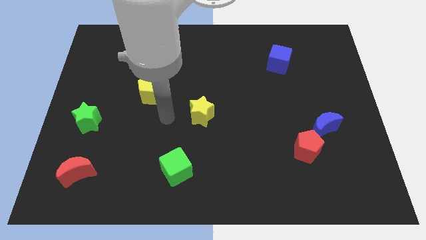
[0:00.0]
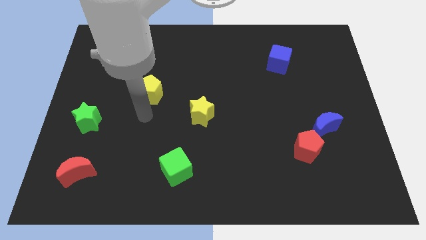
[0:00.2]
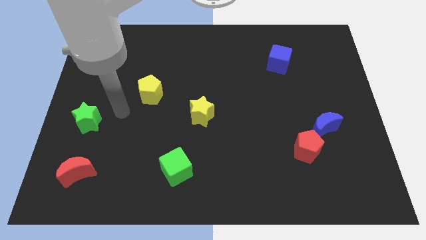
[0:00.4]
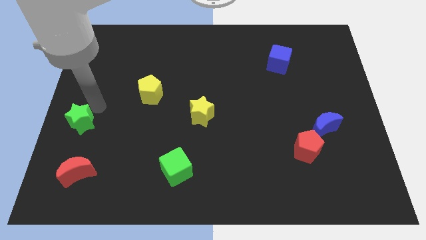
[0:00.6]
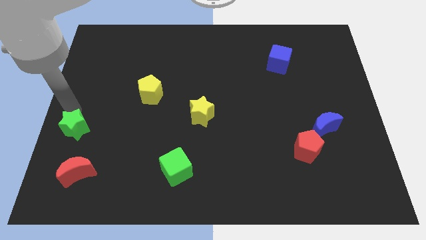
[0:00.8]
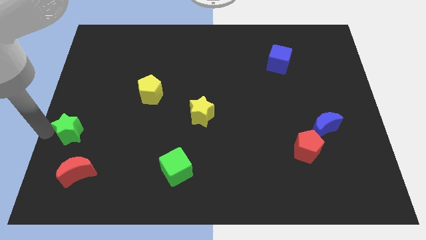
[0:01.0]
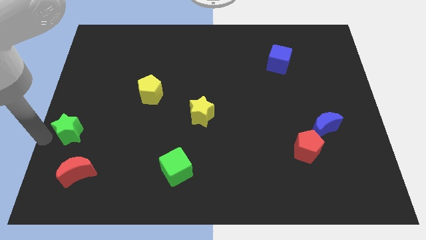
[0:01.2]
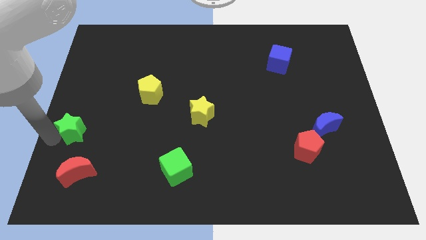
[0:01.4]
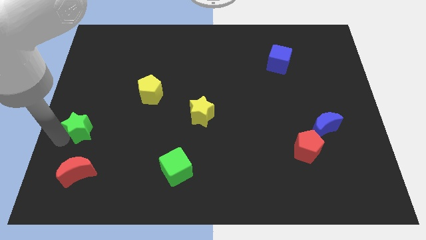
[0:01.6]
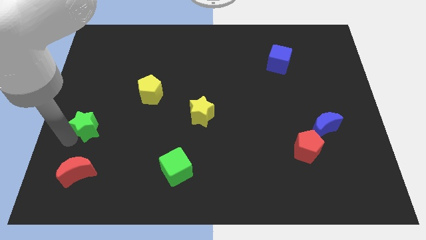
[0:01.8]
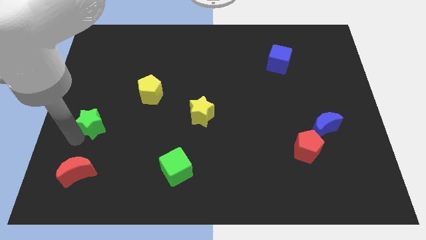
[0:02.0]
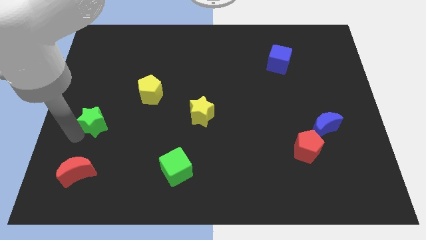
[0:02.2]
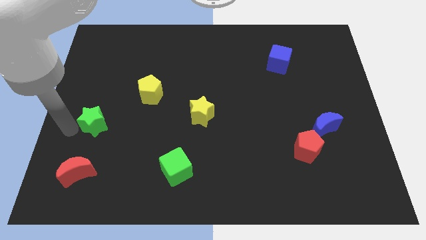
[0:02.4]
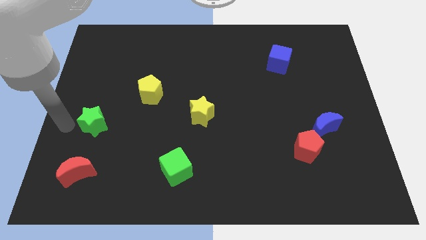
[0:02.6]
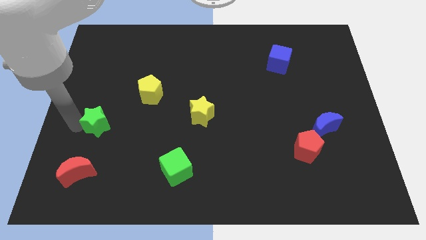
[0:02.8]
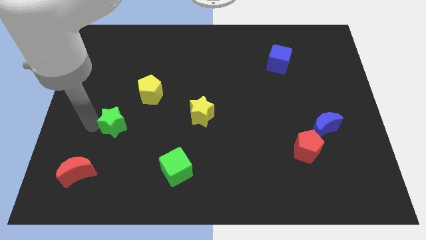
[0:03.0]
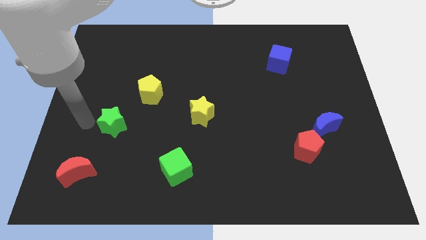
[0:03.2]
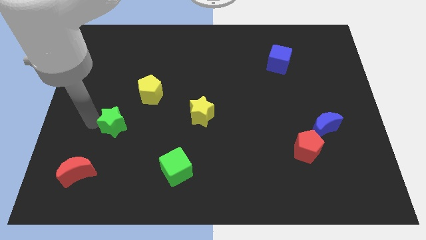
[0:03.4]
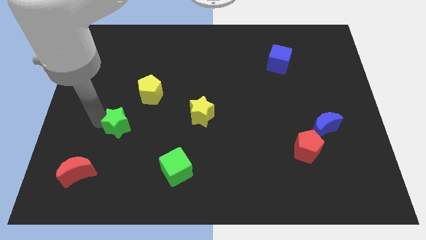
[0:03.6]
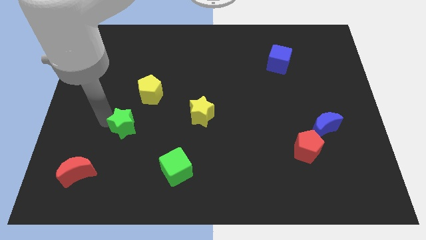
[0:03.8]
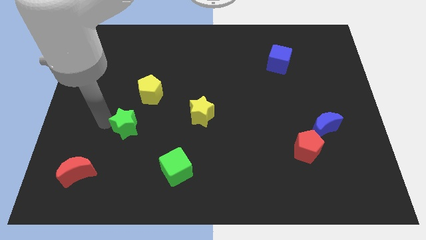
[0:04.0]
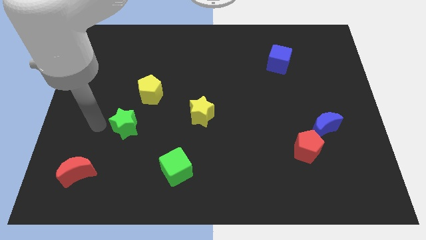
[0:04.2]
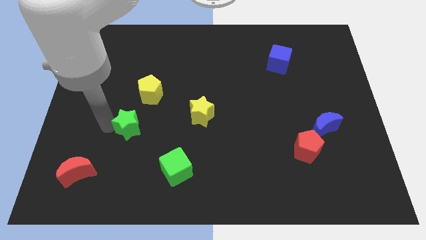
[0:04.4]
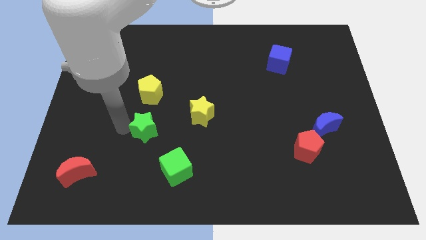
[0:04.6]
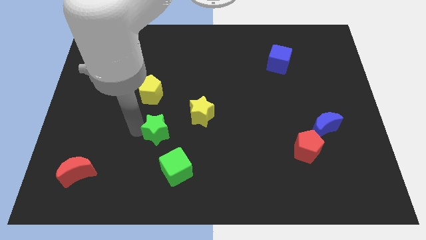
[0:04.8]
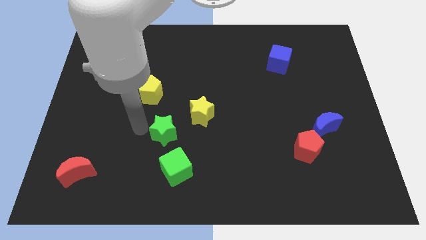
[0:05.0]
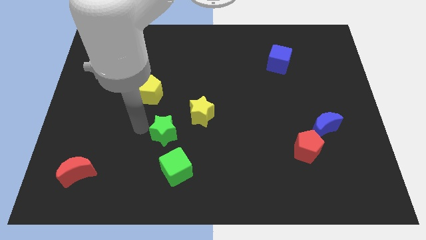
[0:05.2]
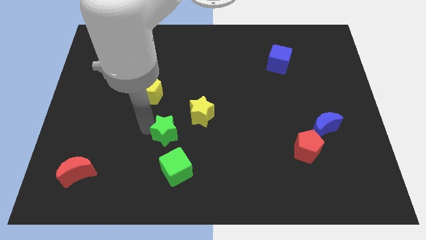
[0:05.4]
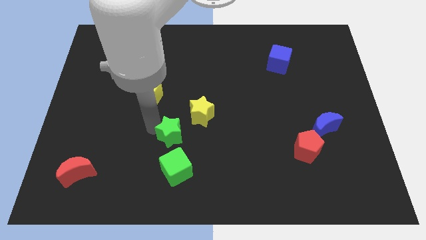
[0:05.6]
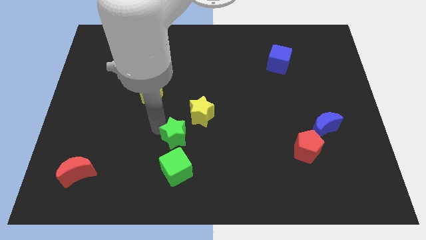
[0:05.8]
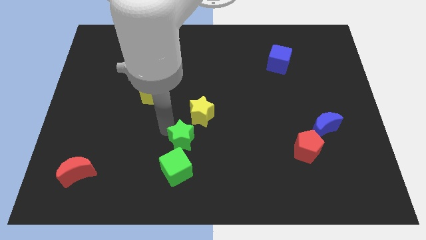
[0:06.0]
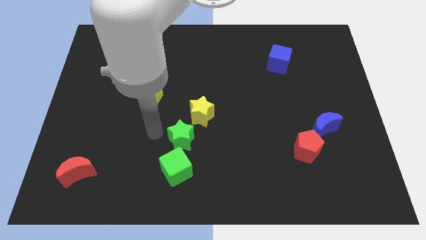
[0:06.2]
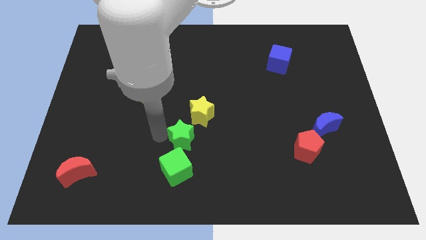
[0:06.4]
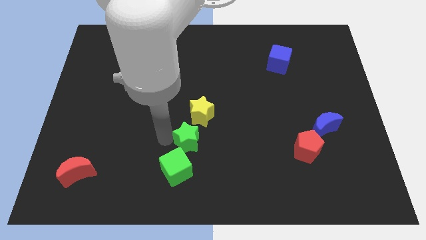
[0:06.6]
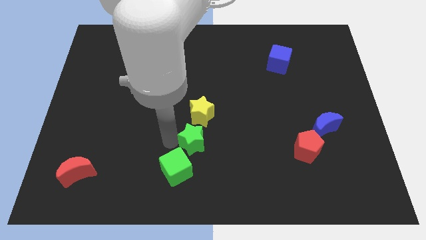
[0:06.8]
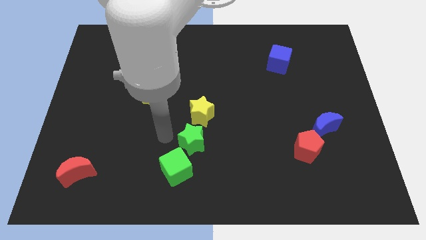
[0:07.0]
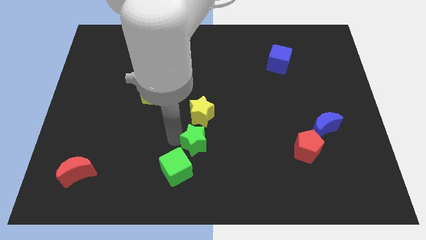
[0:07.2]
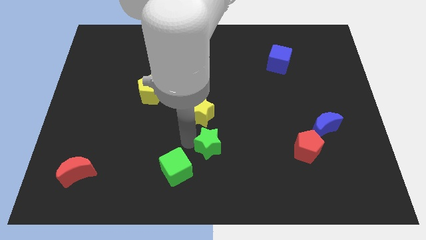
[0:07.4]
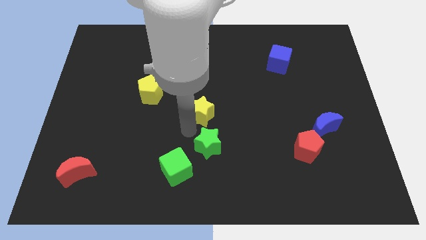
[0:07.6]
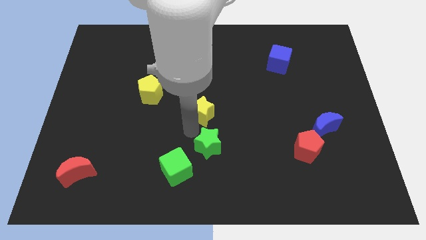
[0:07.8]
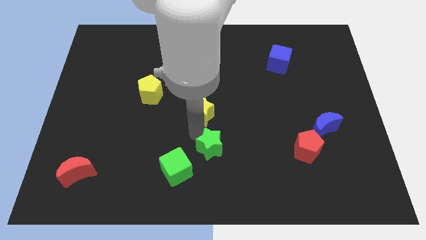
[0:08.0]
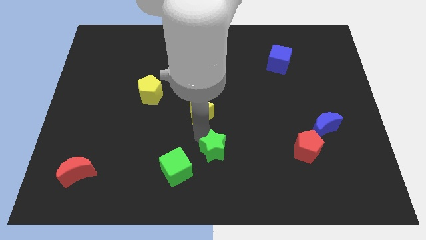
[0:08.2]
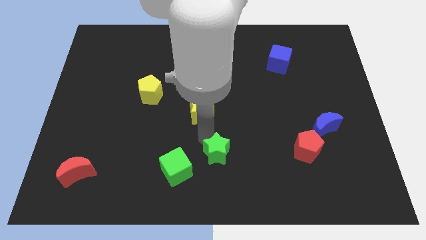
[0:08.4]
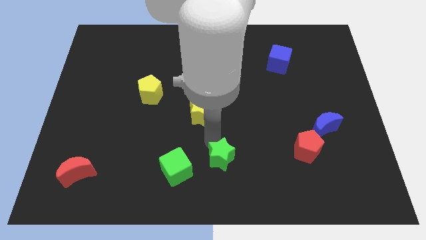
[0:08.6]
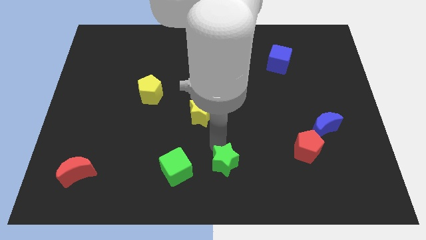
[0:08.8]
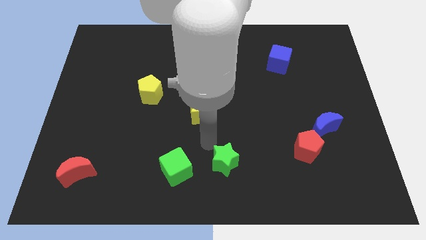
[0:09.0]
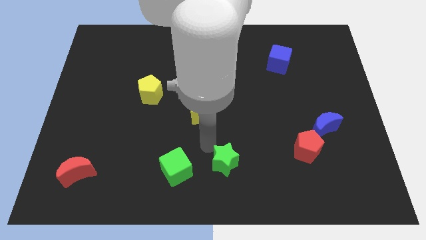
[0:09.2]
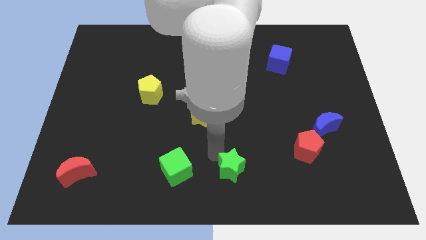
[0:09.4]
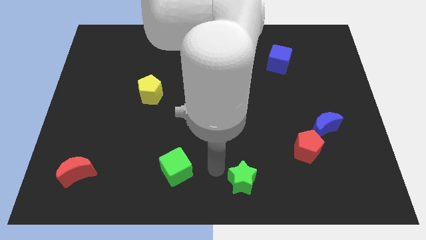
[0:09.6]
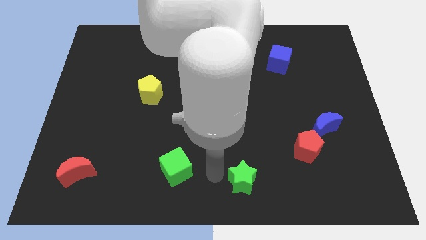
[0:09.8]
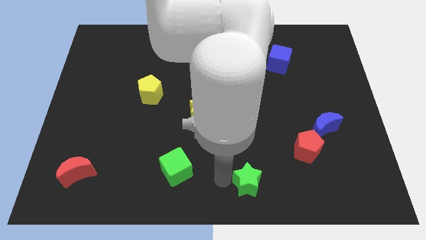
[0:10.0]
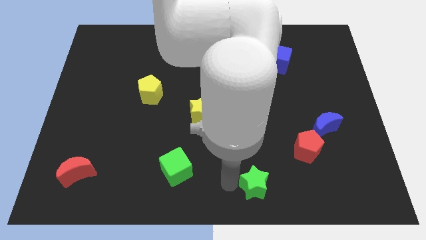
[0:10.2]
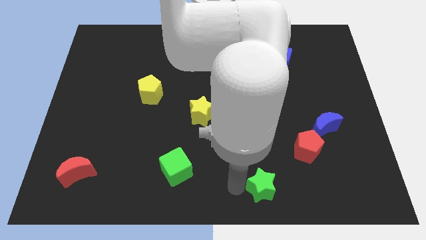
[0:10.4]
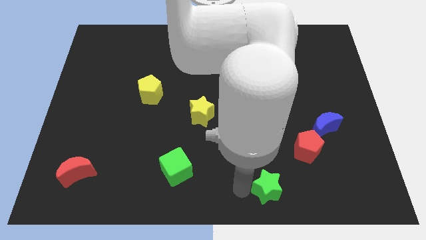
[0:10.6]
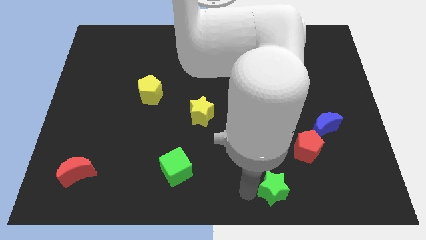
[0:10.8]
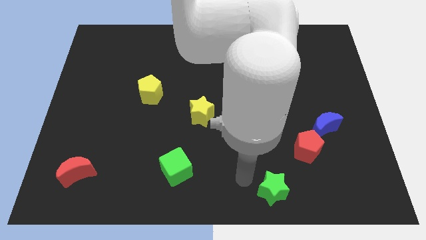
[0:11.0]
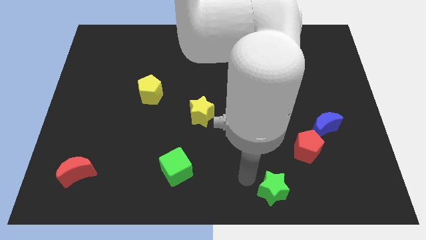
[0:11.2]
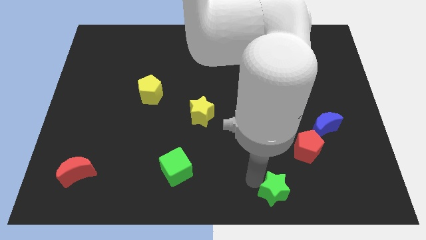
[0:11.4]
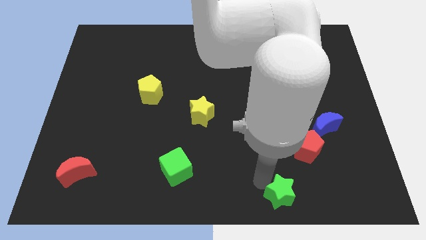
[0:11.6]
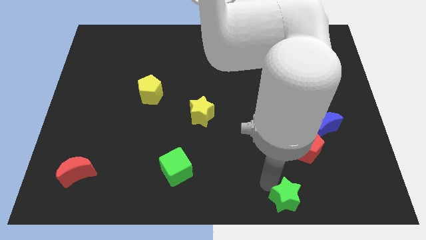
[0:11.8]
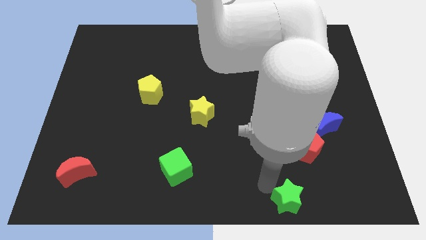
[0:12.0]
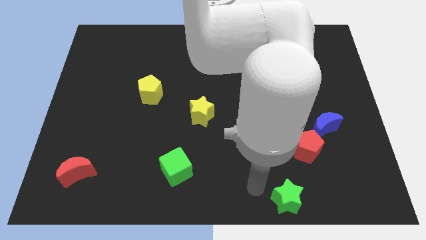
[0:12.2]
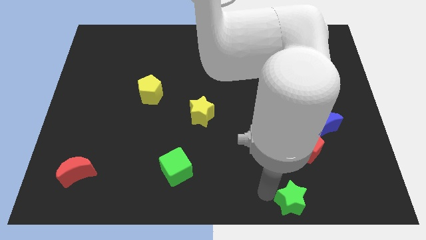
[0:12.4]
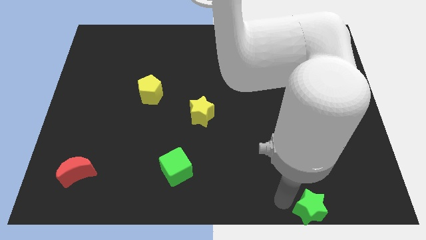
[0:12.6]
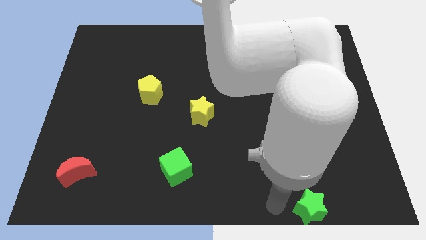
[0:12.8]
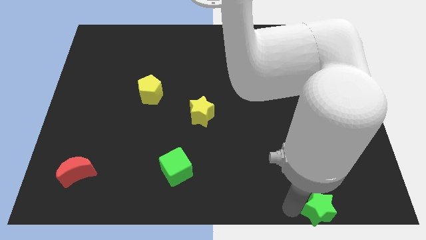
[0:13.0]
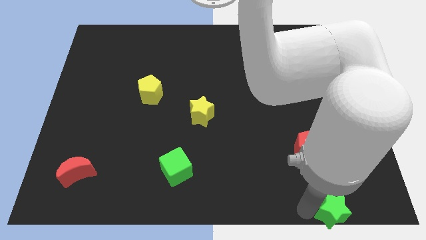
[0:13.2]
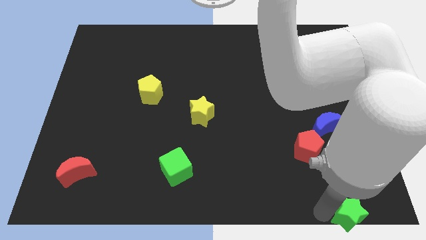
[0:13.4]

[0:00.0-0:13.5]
put the green star to the lower right corner
